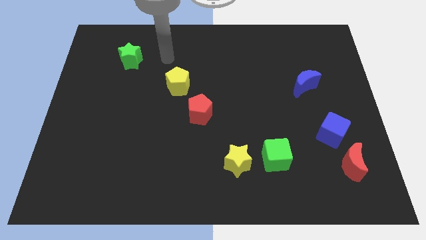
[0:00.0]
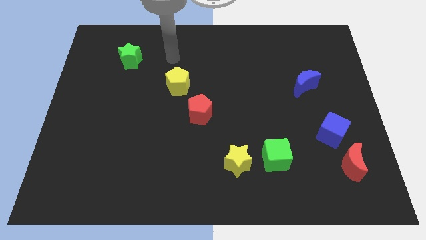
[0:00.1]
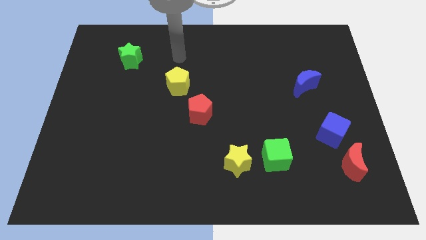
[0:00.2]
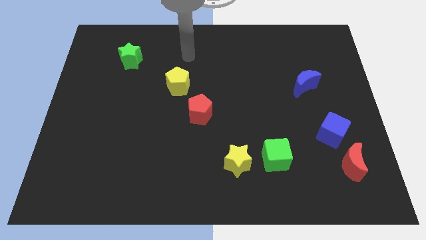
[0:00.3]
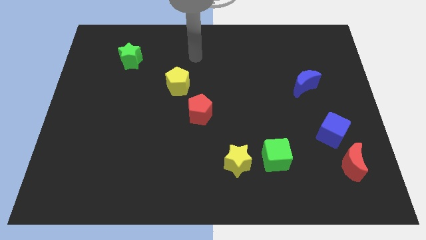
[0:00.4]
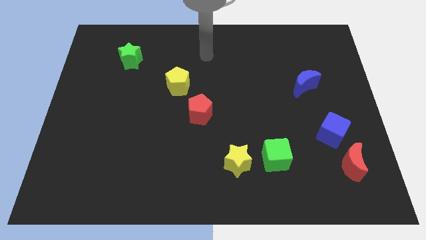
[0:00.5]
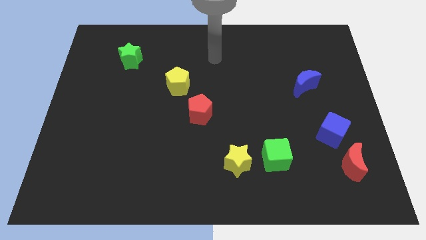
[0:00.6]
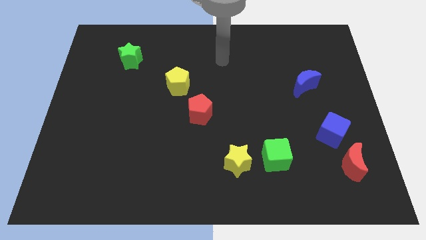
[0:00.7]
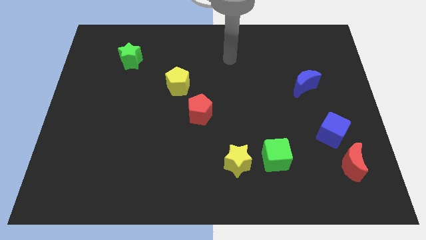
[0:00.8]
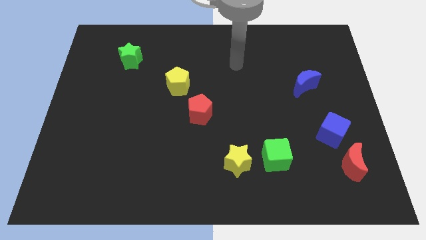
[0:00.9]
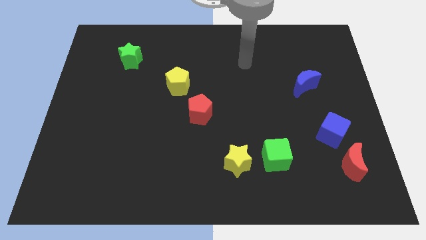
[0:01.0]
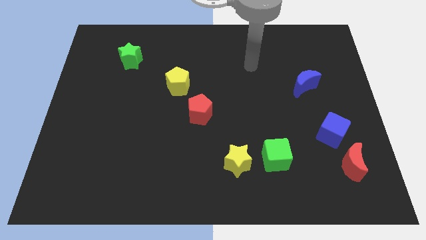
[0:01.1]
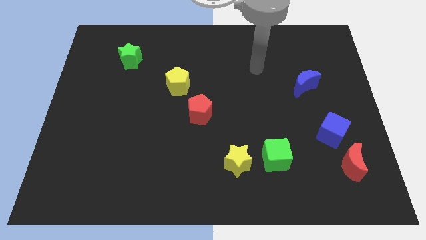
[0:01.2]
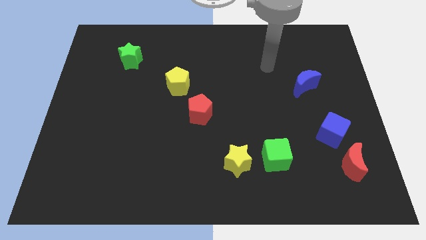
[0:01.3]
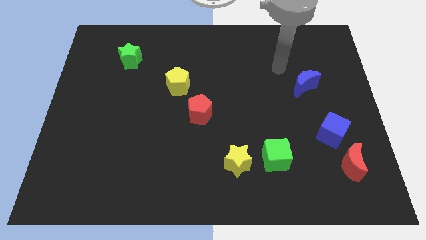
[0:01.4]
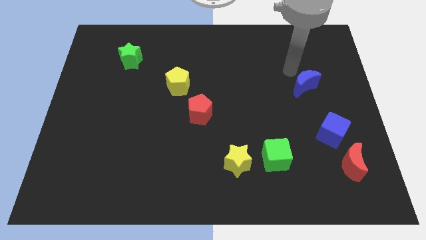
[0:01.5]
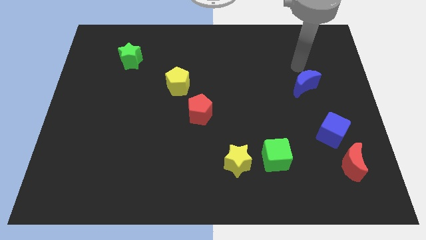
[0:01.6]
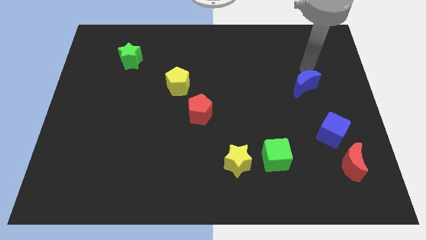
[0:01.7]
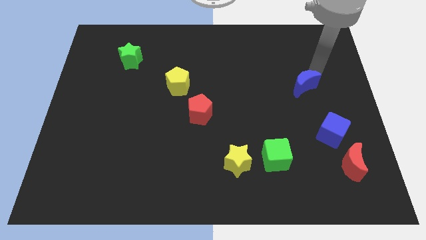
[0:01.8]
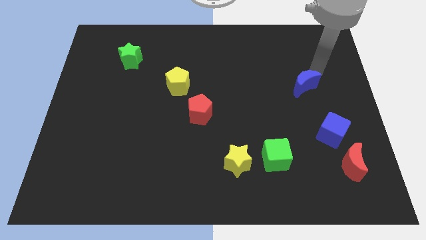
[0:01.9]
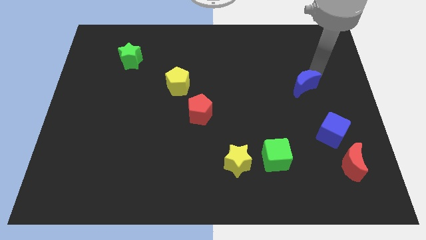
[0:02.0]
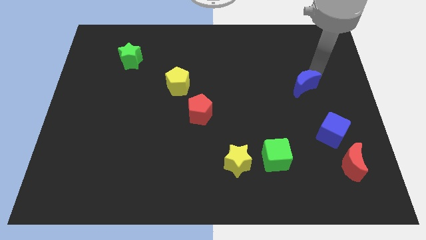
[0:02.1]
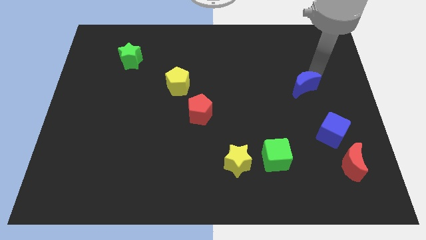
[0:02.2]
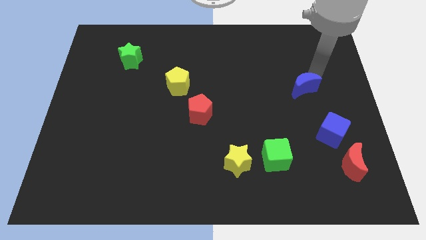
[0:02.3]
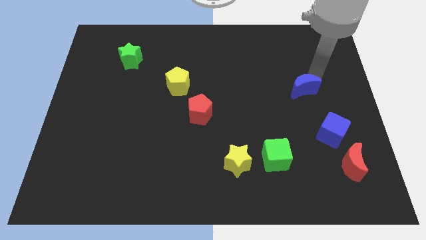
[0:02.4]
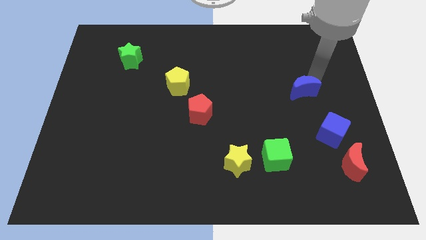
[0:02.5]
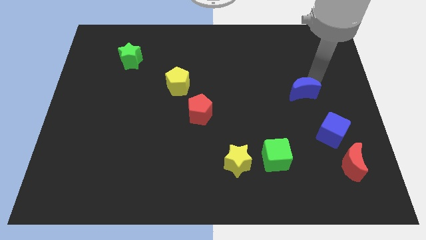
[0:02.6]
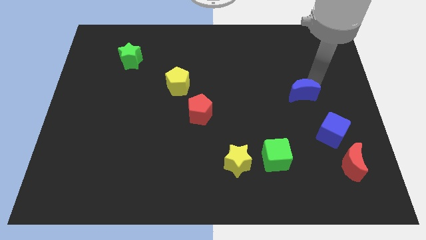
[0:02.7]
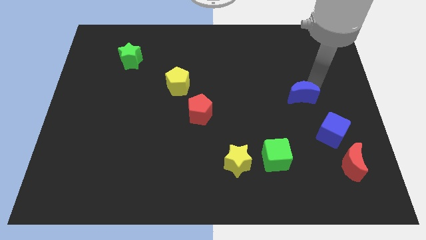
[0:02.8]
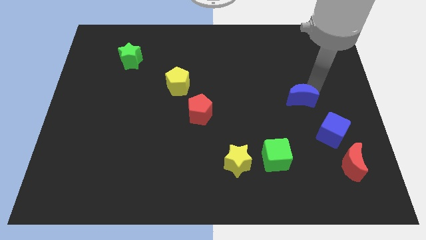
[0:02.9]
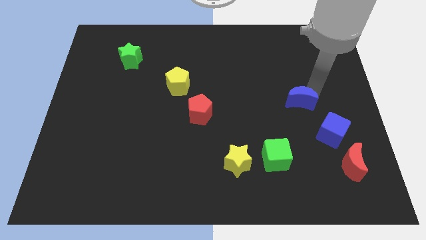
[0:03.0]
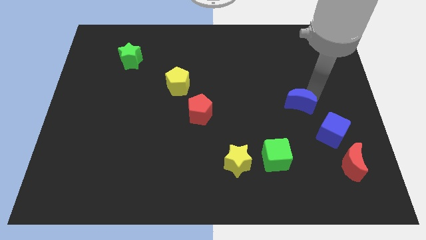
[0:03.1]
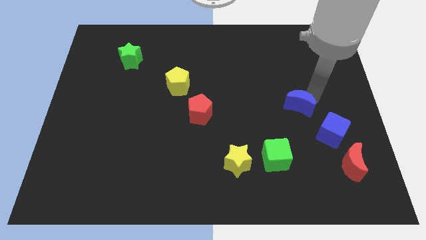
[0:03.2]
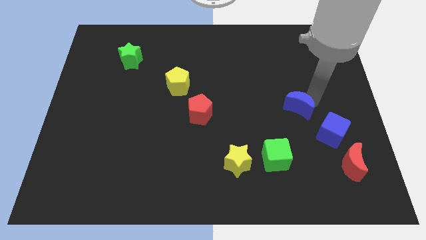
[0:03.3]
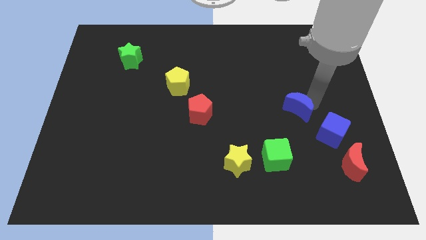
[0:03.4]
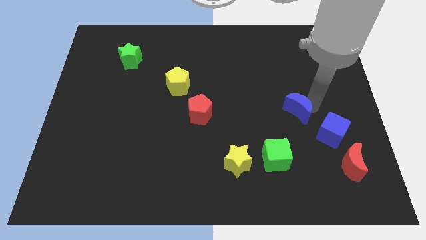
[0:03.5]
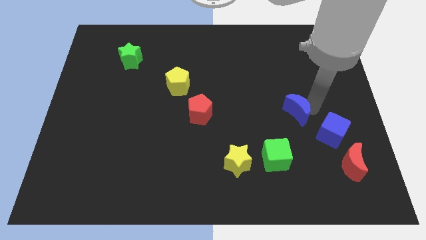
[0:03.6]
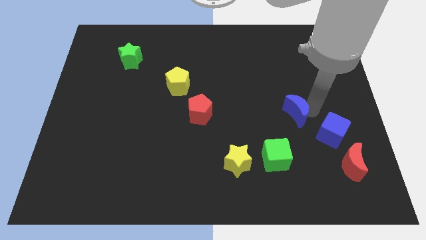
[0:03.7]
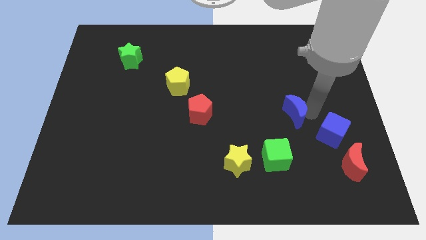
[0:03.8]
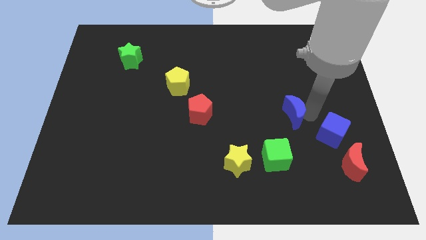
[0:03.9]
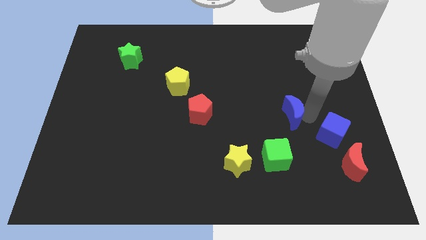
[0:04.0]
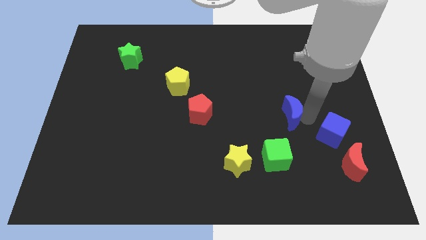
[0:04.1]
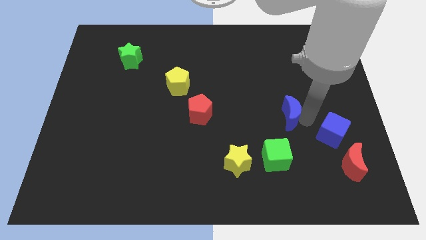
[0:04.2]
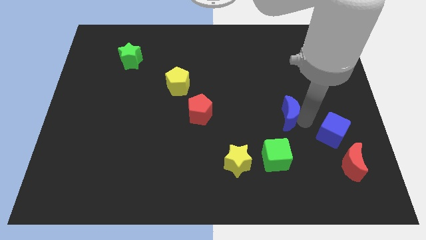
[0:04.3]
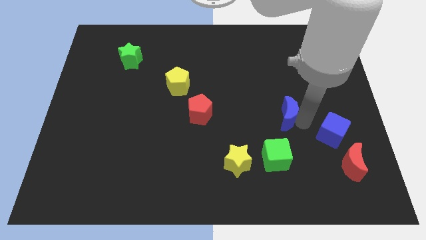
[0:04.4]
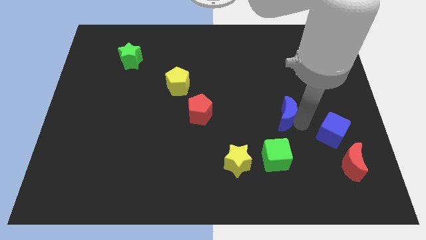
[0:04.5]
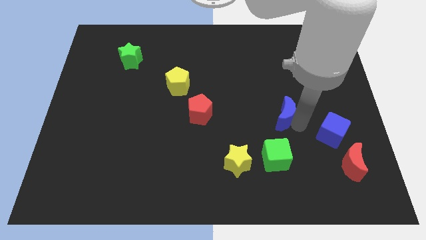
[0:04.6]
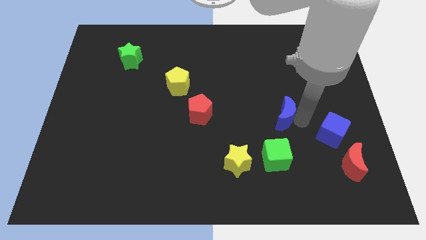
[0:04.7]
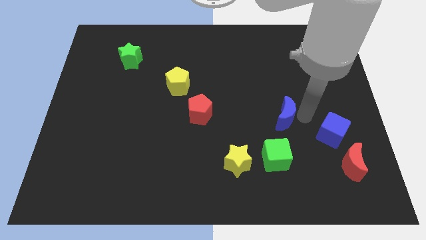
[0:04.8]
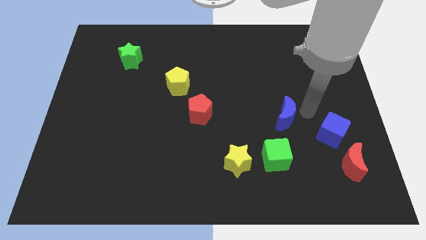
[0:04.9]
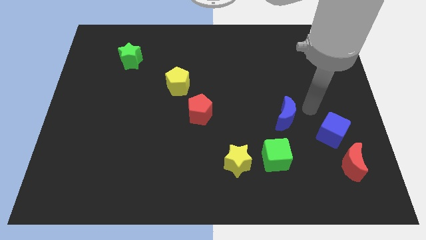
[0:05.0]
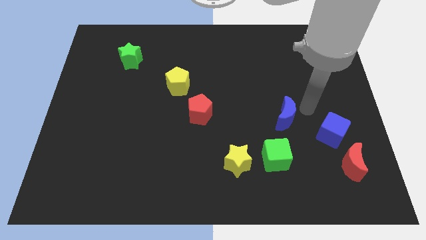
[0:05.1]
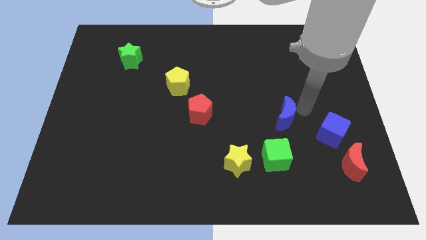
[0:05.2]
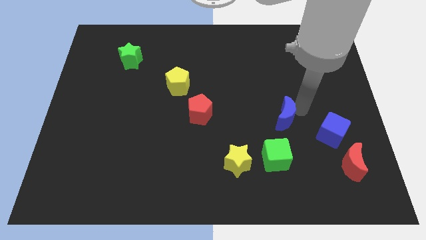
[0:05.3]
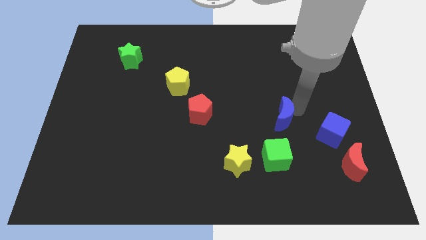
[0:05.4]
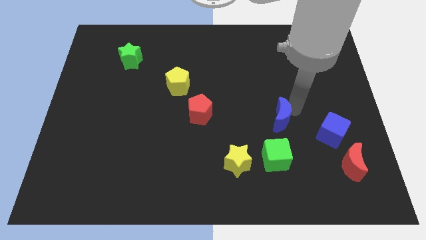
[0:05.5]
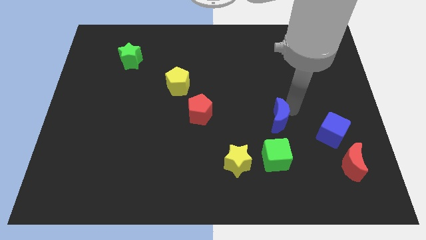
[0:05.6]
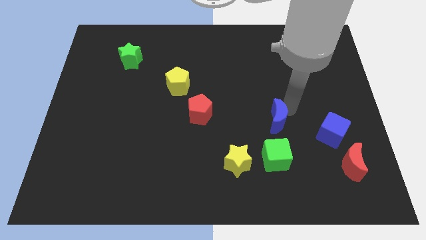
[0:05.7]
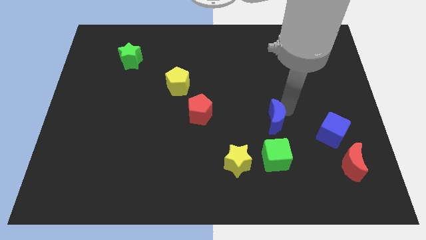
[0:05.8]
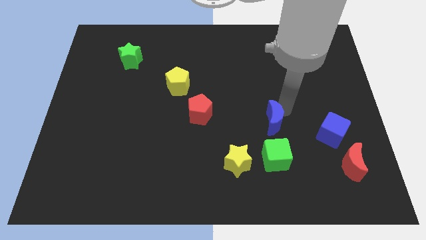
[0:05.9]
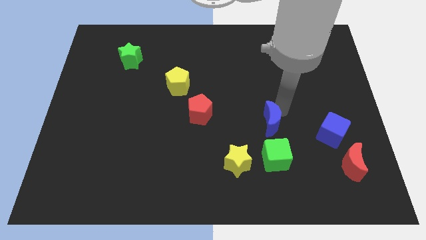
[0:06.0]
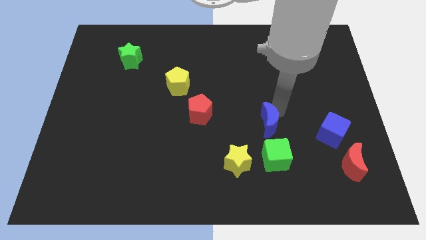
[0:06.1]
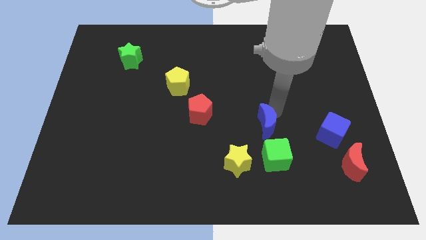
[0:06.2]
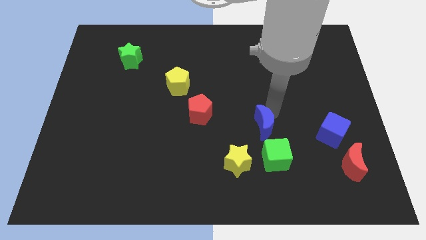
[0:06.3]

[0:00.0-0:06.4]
slide the blue moon to the top left of the green cube
